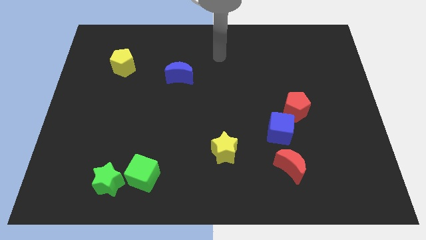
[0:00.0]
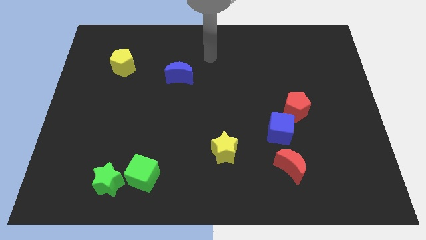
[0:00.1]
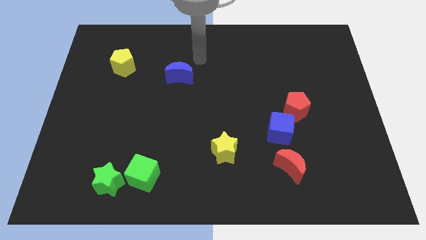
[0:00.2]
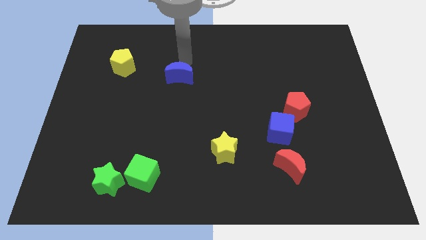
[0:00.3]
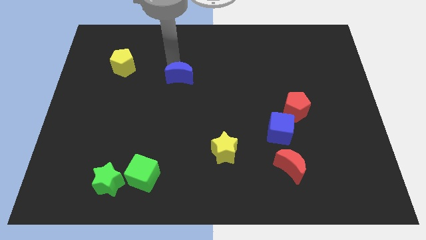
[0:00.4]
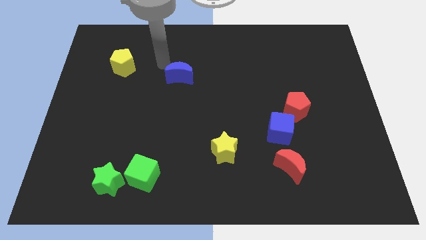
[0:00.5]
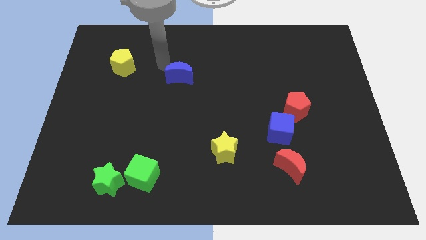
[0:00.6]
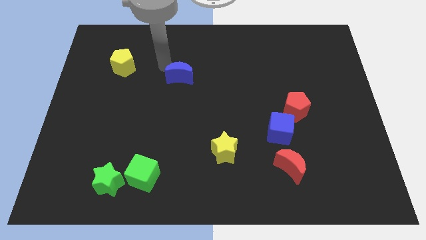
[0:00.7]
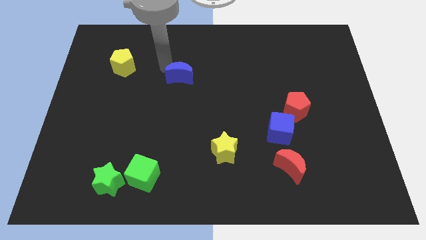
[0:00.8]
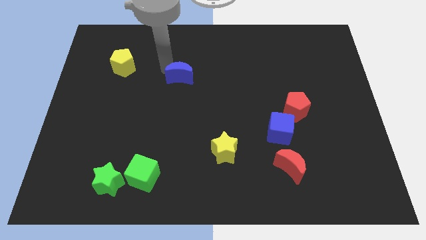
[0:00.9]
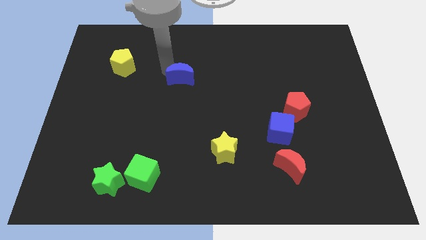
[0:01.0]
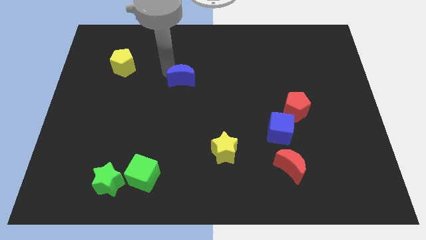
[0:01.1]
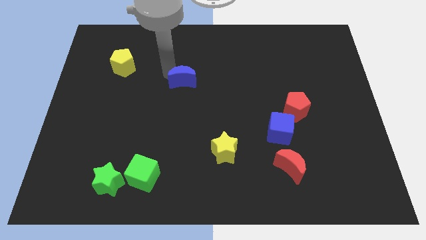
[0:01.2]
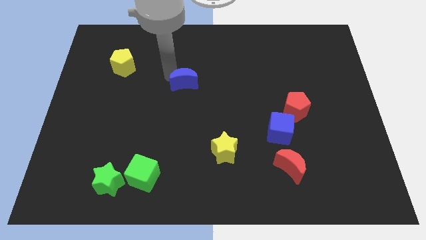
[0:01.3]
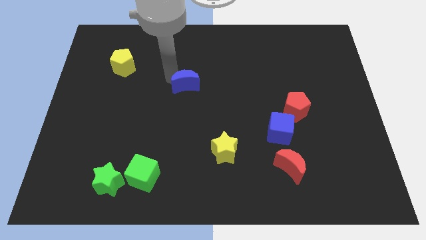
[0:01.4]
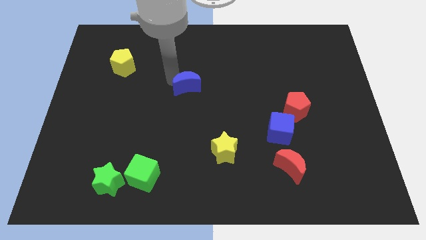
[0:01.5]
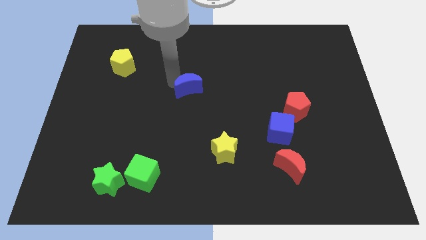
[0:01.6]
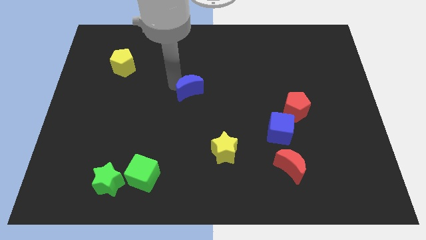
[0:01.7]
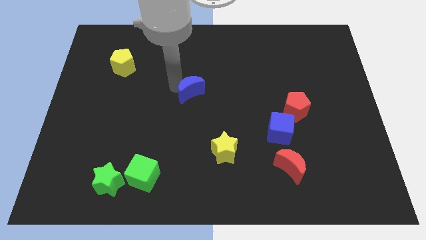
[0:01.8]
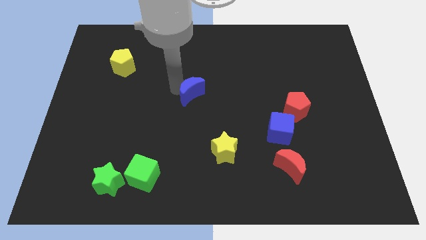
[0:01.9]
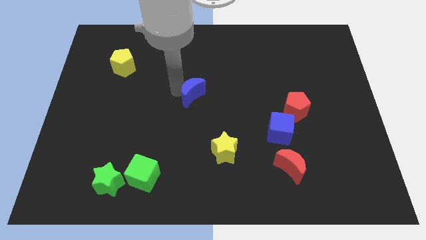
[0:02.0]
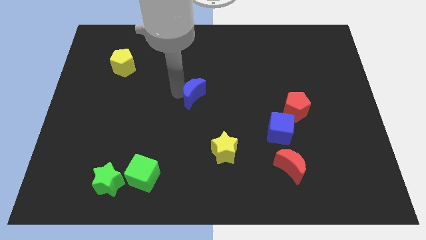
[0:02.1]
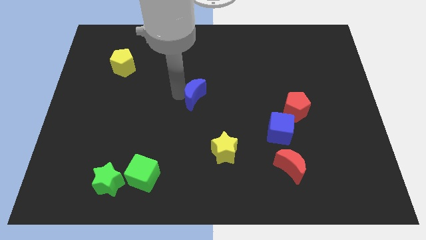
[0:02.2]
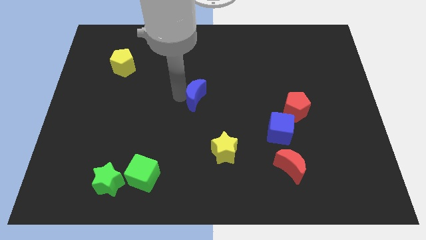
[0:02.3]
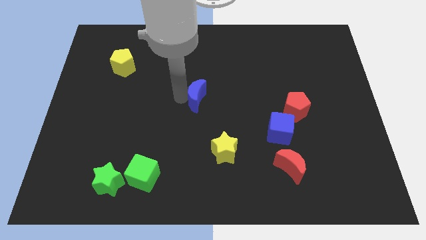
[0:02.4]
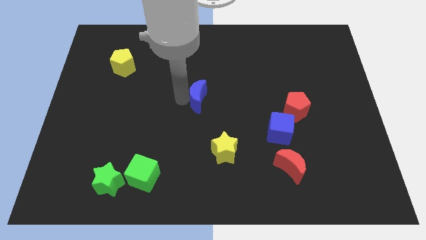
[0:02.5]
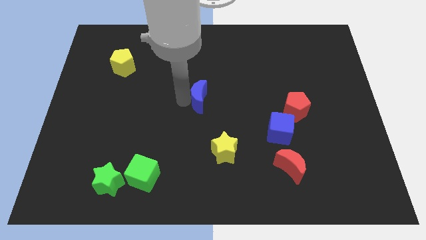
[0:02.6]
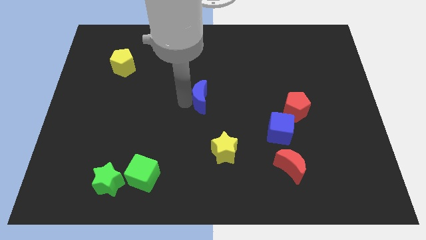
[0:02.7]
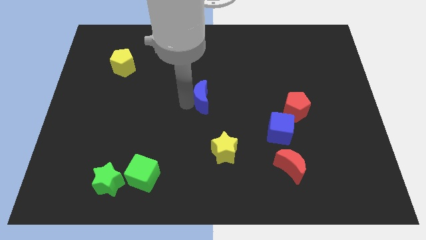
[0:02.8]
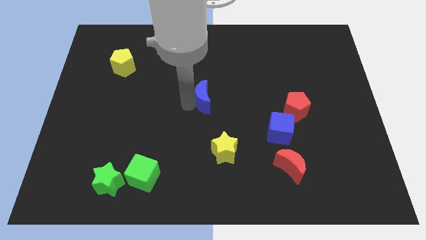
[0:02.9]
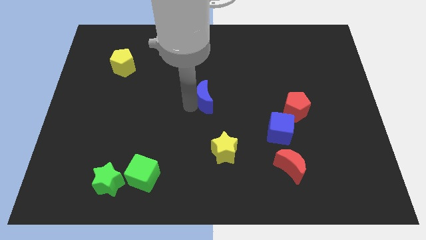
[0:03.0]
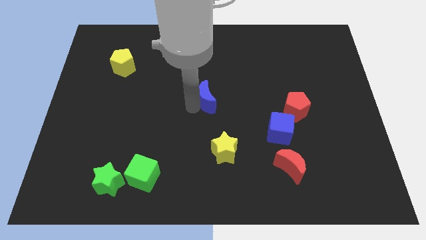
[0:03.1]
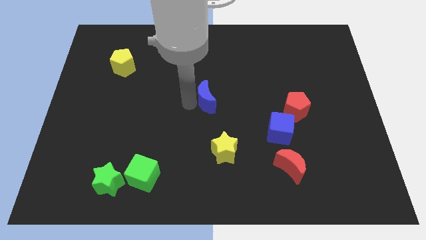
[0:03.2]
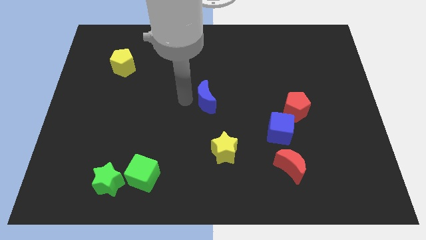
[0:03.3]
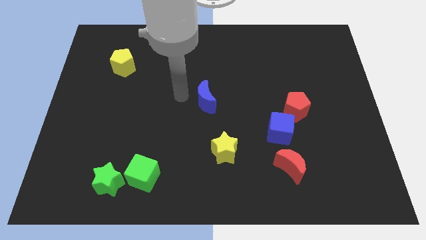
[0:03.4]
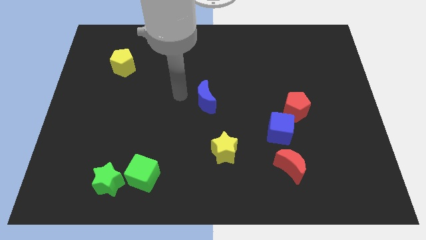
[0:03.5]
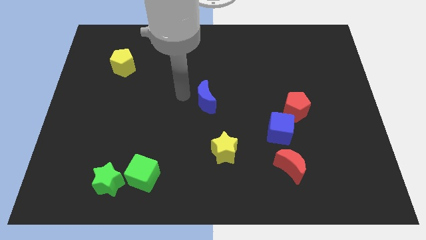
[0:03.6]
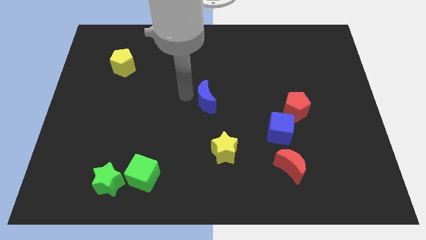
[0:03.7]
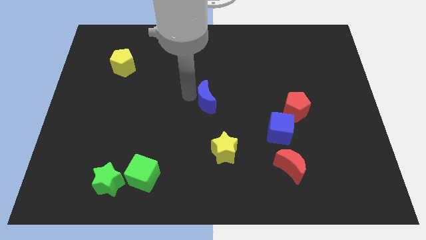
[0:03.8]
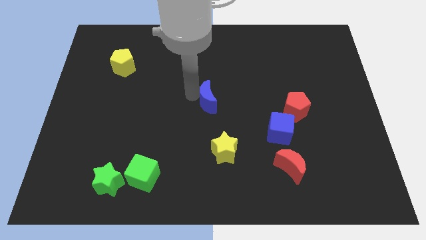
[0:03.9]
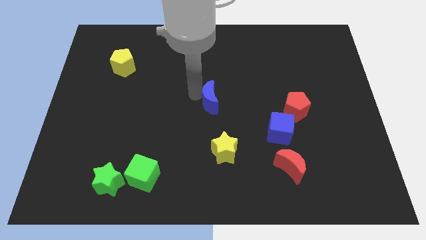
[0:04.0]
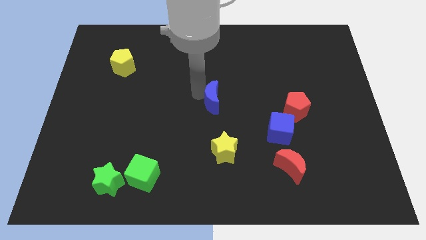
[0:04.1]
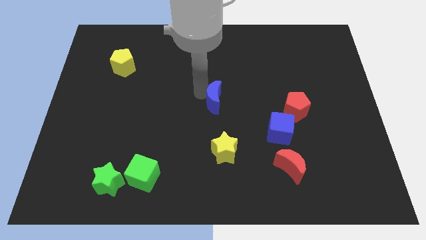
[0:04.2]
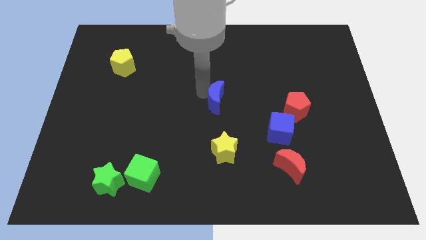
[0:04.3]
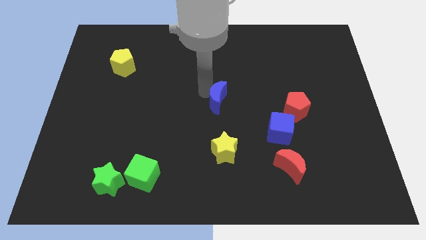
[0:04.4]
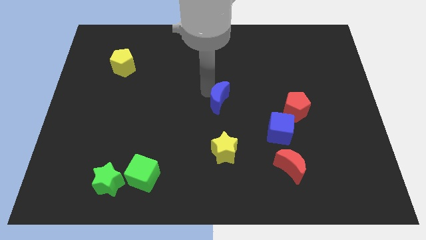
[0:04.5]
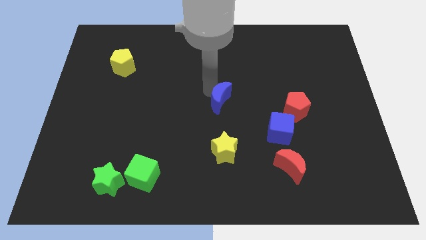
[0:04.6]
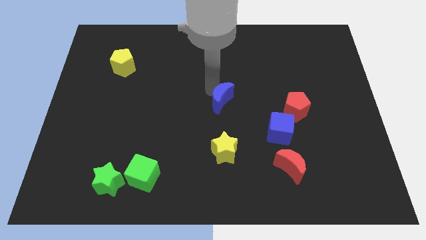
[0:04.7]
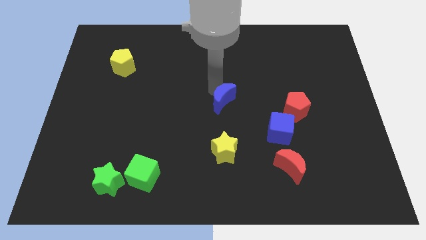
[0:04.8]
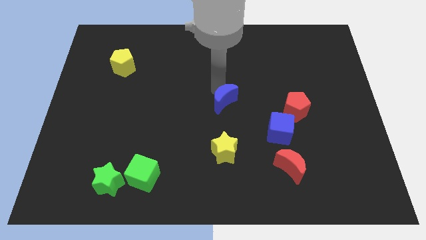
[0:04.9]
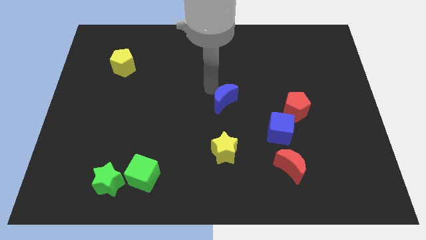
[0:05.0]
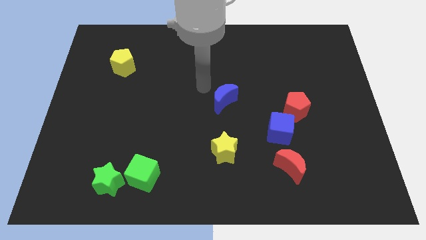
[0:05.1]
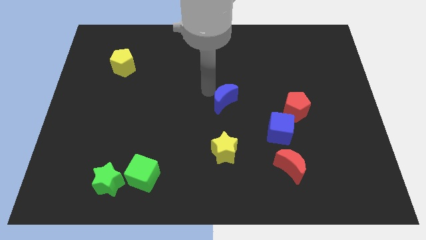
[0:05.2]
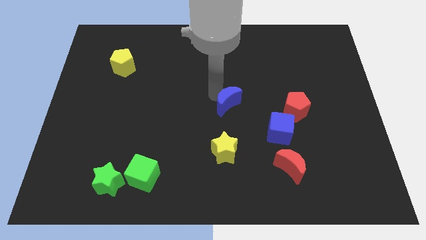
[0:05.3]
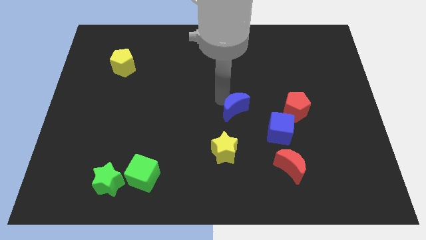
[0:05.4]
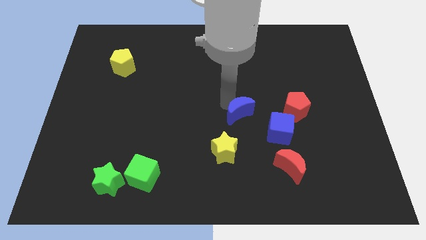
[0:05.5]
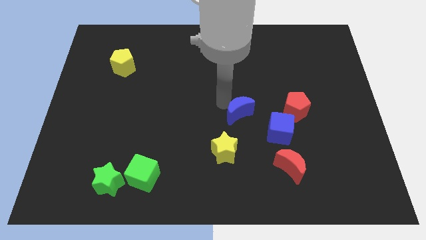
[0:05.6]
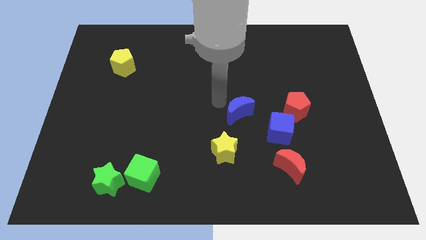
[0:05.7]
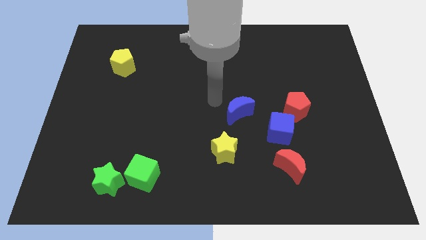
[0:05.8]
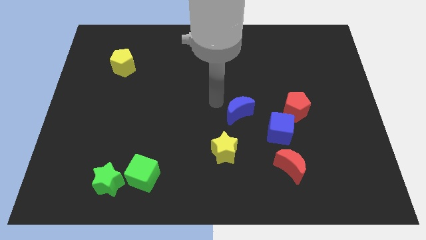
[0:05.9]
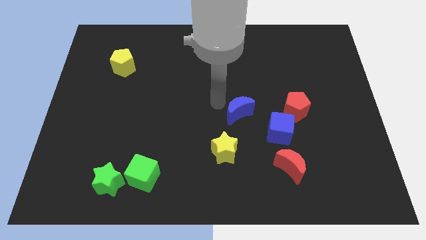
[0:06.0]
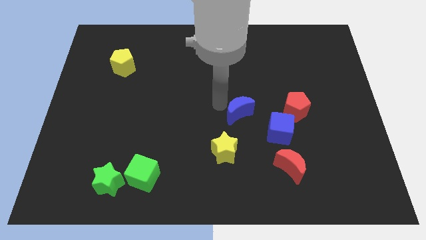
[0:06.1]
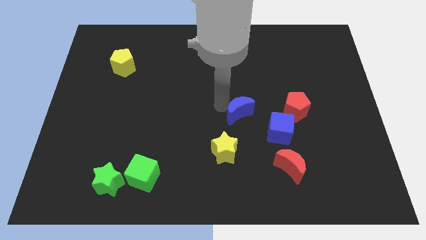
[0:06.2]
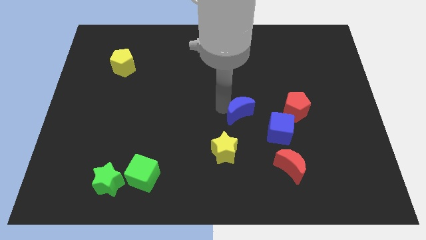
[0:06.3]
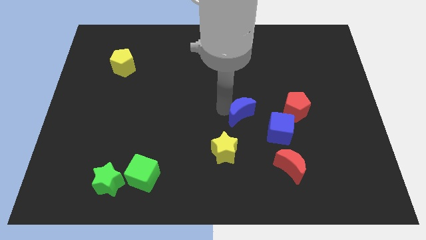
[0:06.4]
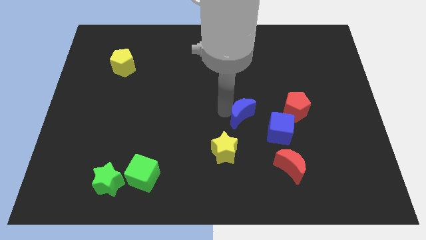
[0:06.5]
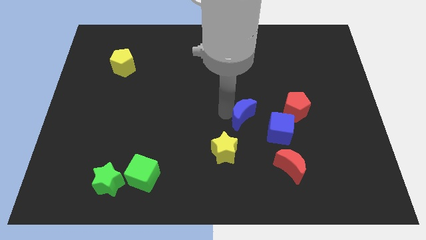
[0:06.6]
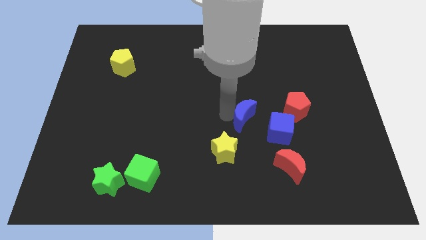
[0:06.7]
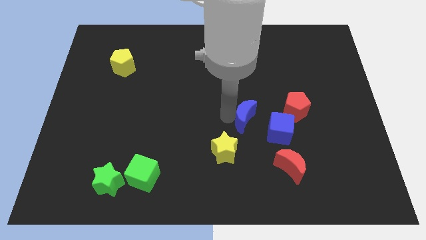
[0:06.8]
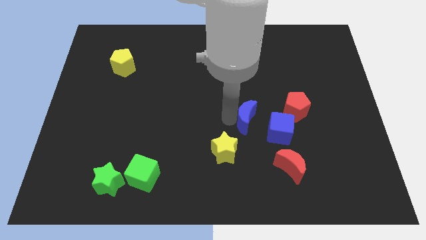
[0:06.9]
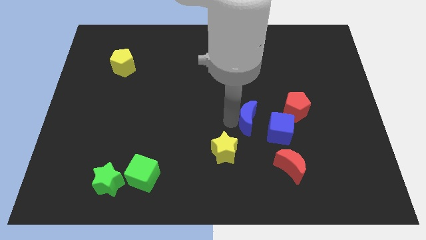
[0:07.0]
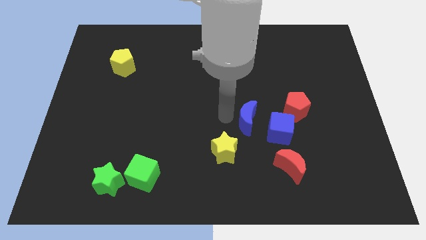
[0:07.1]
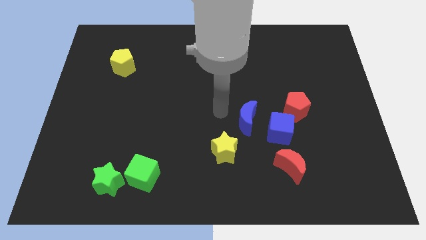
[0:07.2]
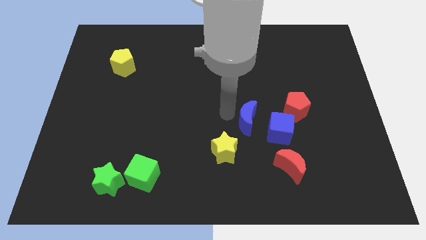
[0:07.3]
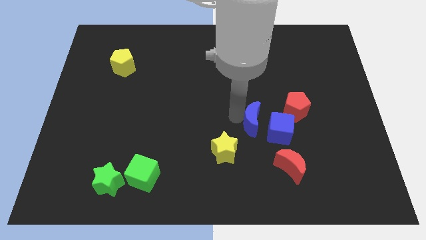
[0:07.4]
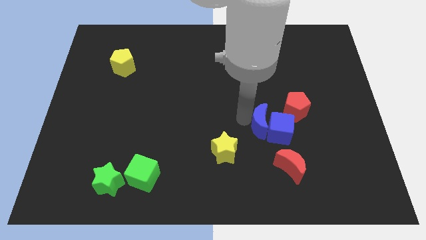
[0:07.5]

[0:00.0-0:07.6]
slide the blue moon towards the blue cube
